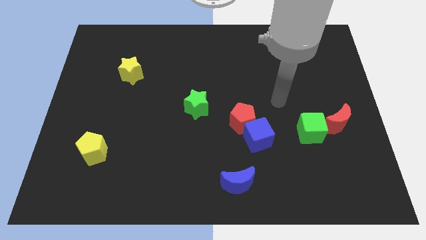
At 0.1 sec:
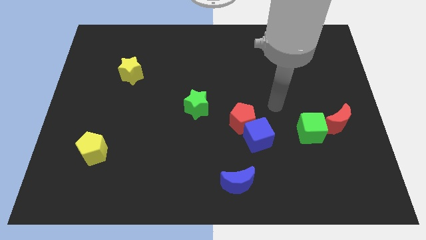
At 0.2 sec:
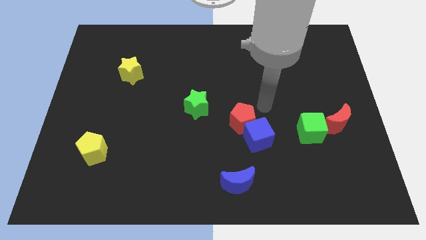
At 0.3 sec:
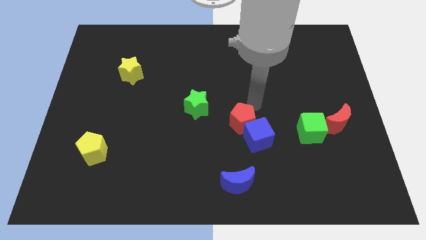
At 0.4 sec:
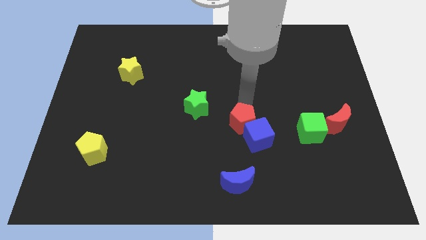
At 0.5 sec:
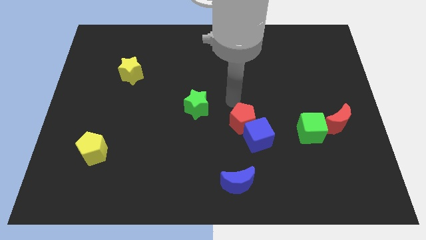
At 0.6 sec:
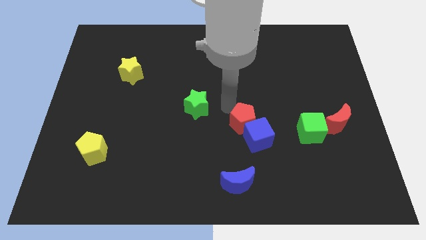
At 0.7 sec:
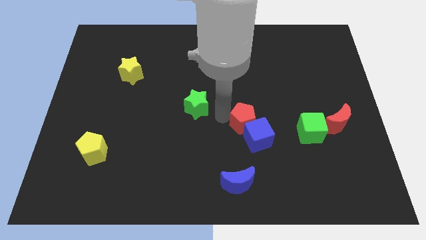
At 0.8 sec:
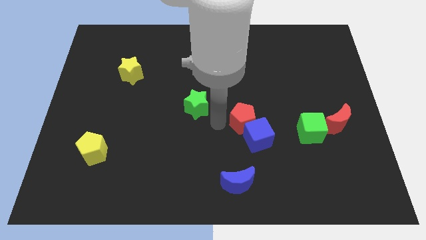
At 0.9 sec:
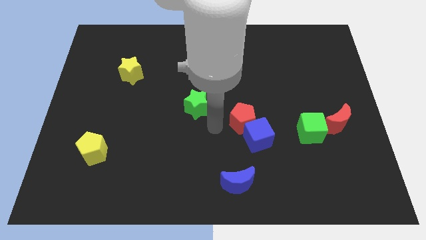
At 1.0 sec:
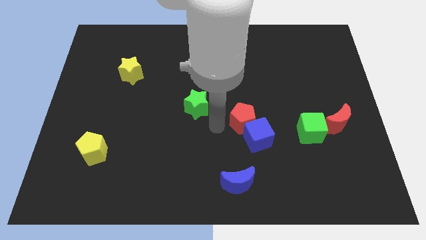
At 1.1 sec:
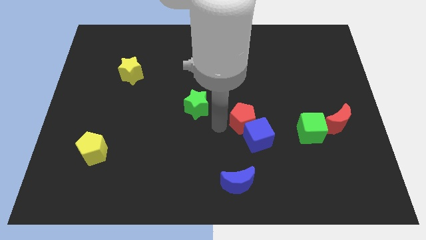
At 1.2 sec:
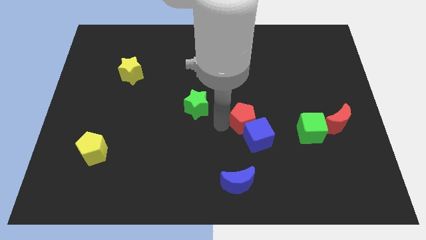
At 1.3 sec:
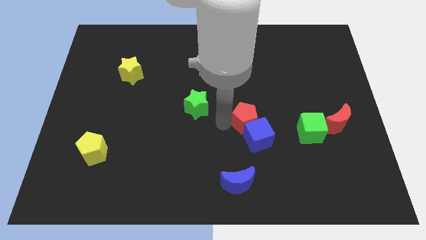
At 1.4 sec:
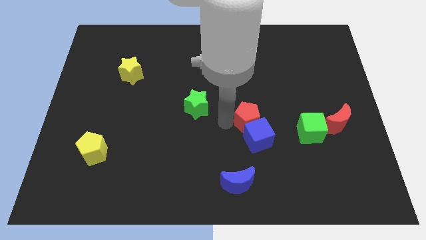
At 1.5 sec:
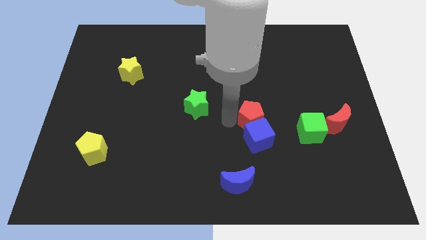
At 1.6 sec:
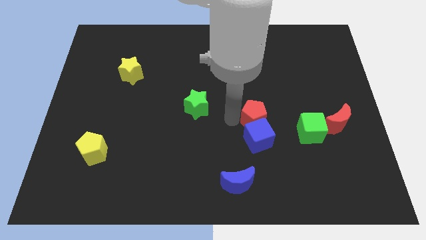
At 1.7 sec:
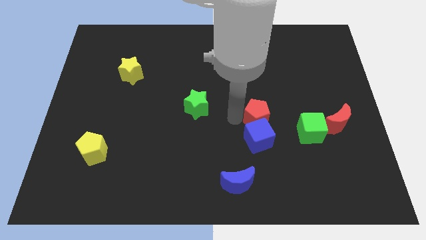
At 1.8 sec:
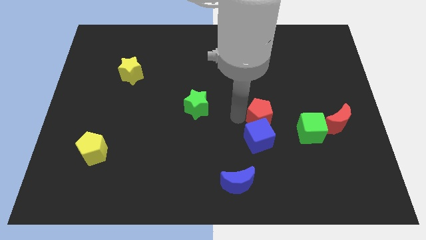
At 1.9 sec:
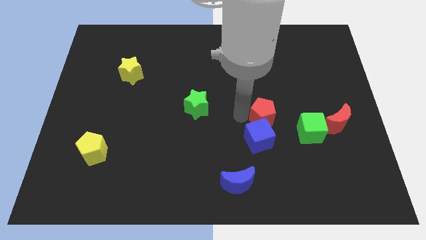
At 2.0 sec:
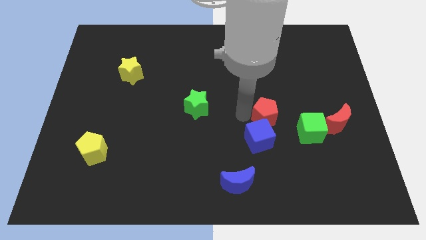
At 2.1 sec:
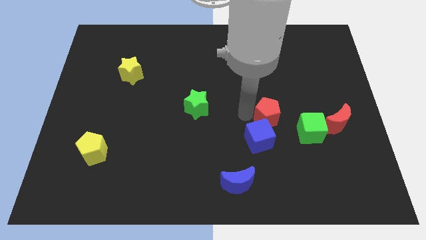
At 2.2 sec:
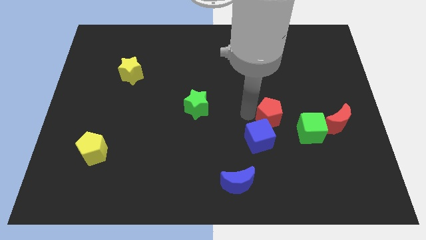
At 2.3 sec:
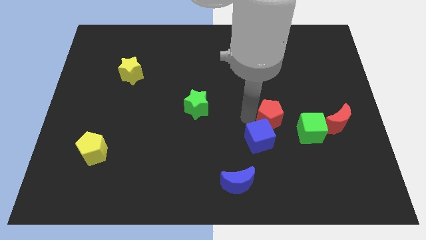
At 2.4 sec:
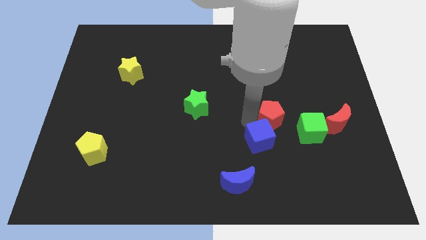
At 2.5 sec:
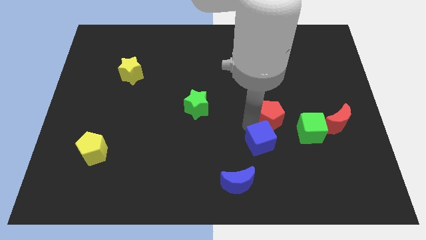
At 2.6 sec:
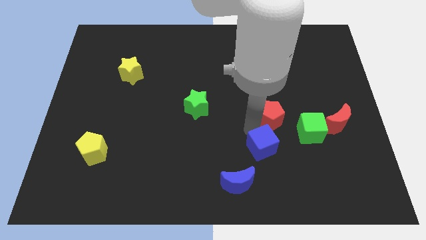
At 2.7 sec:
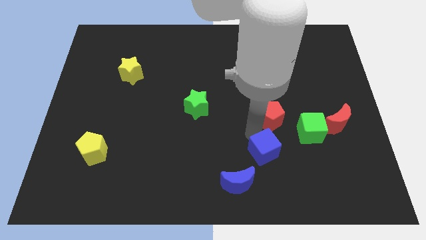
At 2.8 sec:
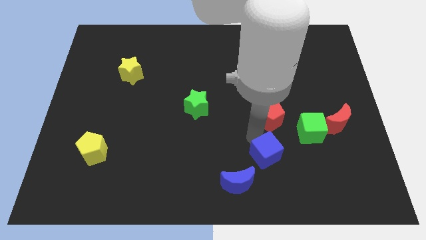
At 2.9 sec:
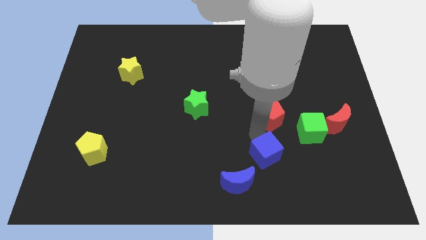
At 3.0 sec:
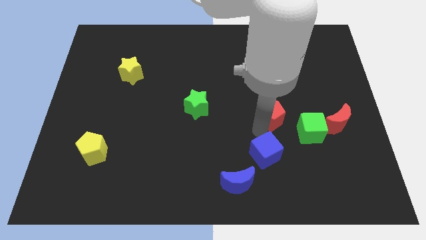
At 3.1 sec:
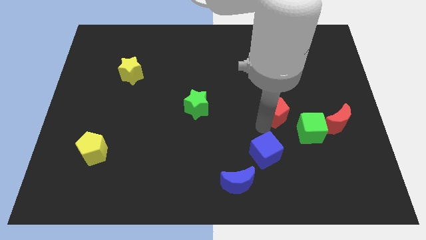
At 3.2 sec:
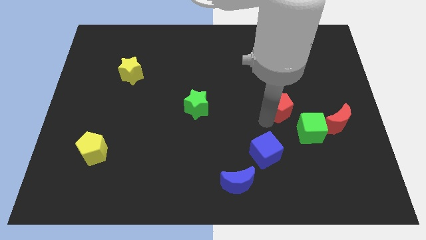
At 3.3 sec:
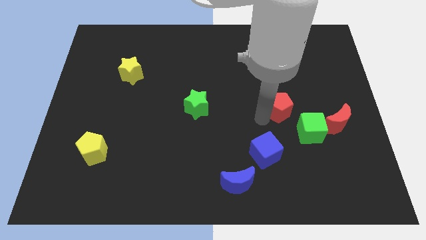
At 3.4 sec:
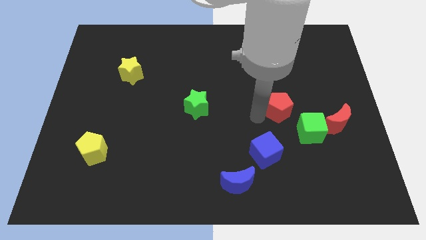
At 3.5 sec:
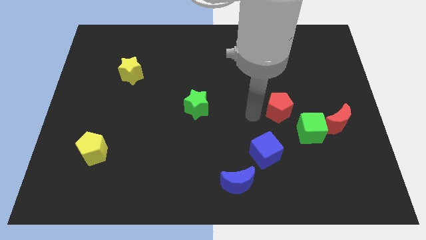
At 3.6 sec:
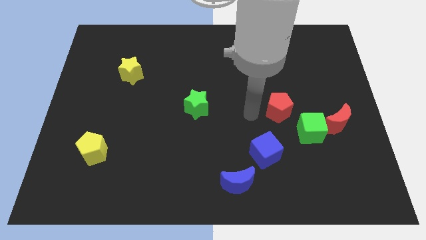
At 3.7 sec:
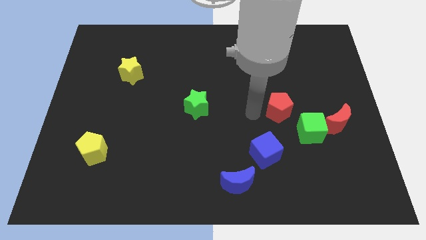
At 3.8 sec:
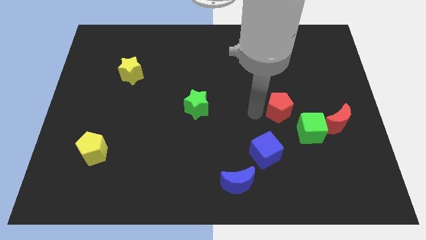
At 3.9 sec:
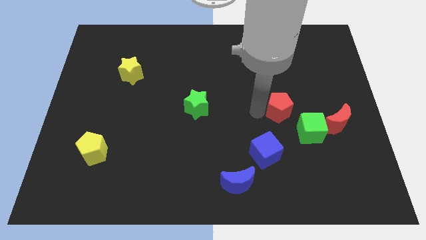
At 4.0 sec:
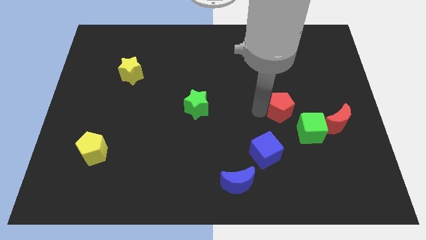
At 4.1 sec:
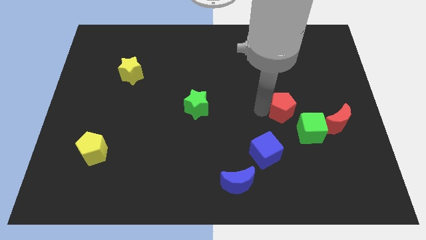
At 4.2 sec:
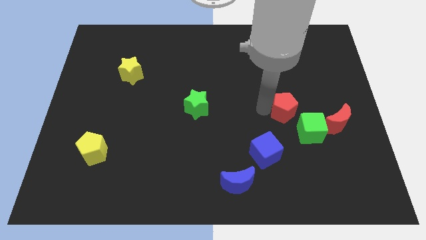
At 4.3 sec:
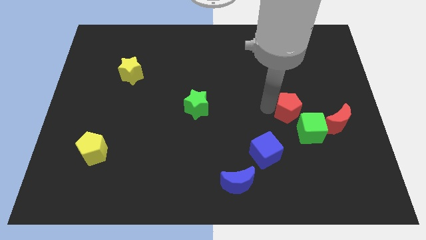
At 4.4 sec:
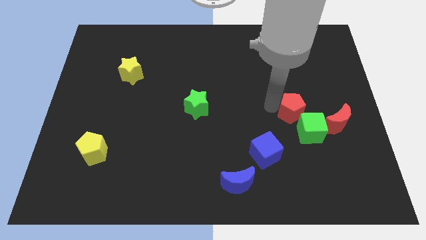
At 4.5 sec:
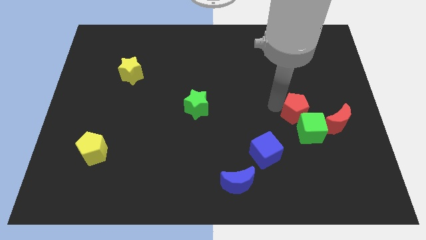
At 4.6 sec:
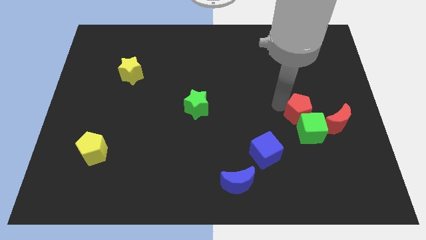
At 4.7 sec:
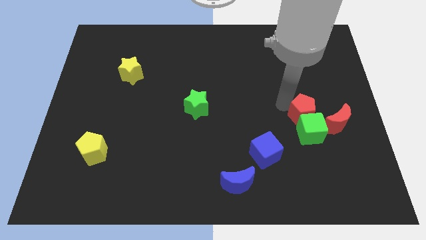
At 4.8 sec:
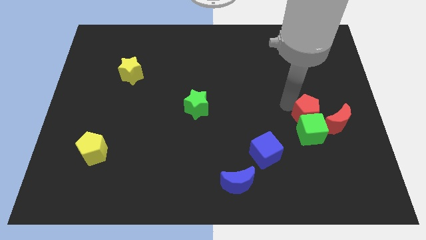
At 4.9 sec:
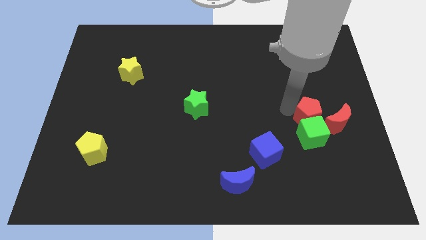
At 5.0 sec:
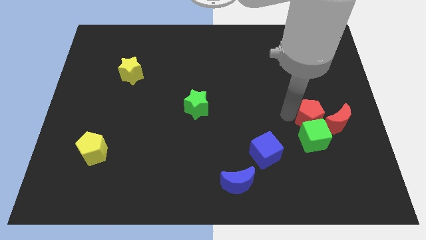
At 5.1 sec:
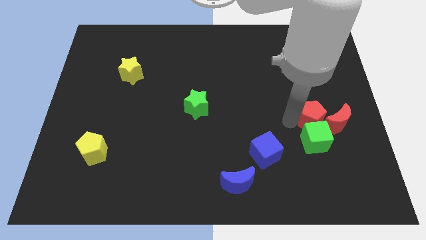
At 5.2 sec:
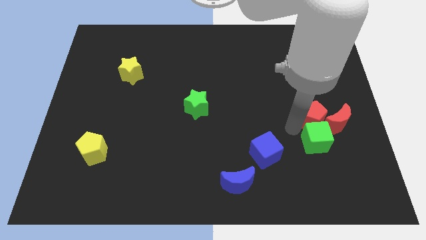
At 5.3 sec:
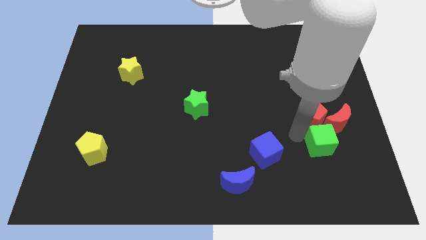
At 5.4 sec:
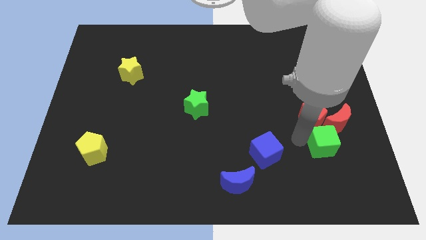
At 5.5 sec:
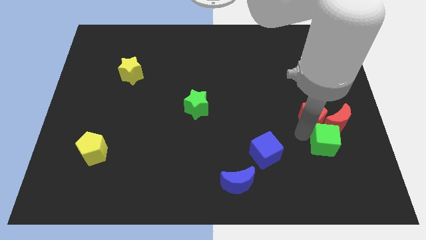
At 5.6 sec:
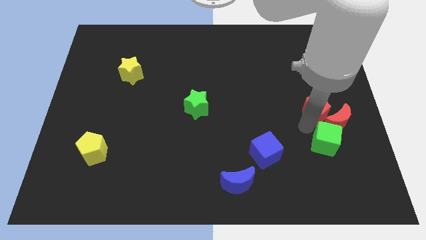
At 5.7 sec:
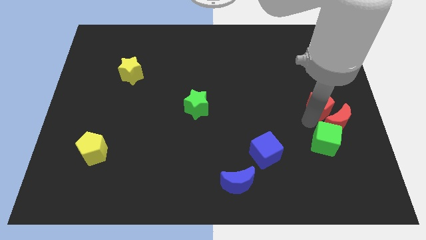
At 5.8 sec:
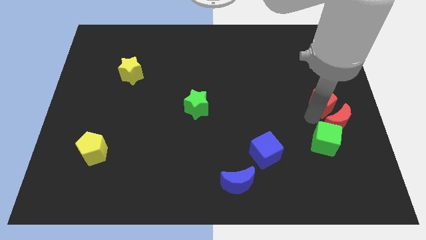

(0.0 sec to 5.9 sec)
move the red pentagon to the center right

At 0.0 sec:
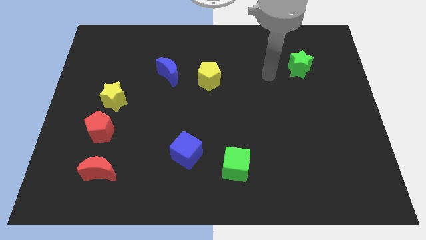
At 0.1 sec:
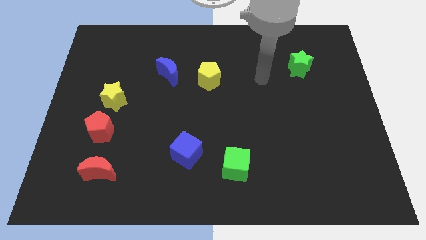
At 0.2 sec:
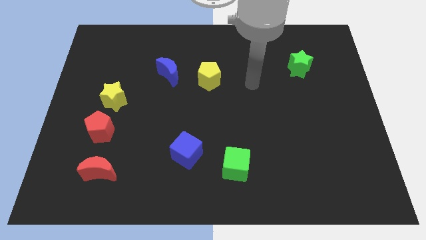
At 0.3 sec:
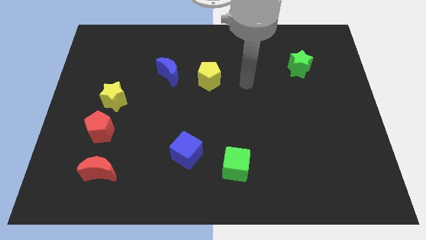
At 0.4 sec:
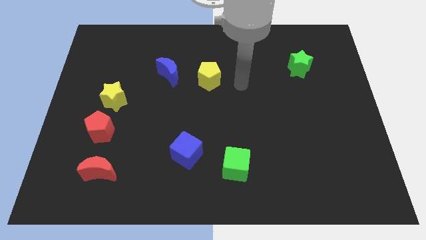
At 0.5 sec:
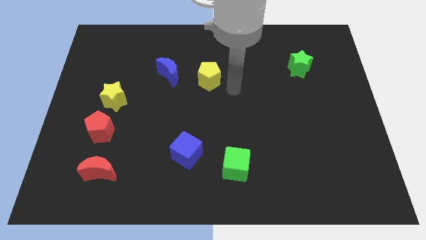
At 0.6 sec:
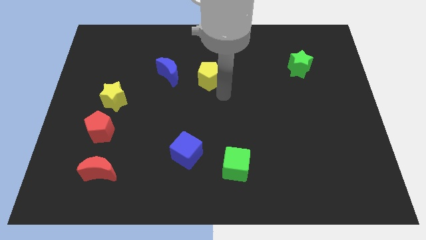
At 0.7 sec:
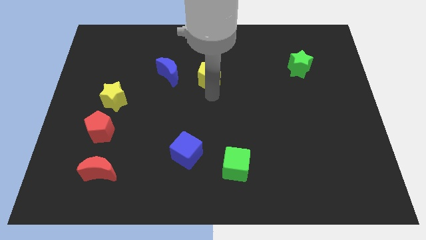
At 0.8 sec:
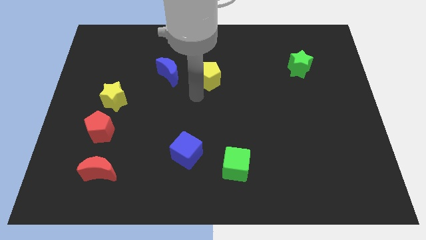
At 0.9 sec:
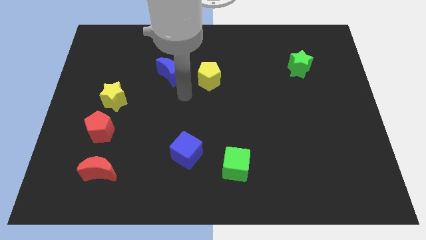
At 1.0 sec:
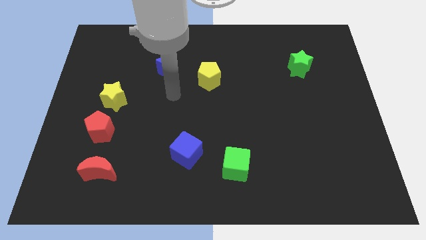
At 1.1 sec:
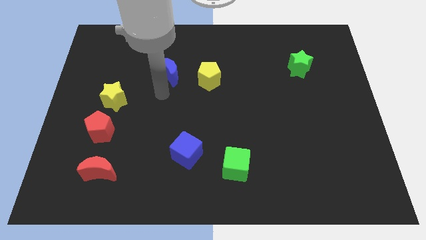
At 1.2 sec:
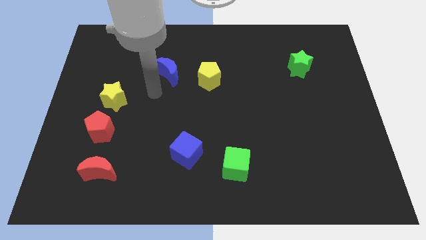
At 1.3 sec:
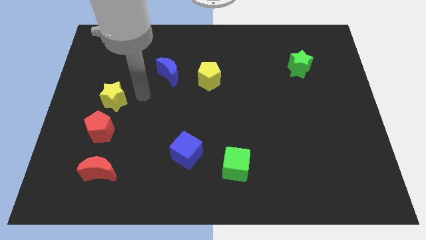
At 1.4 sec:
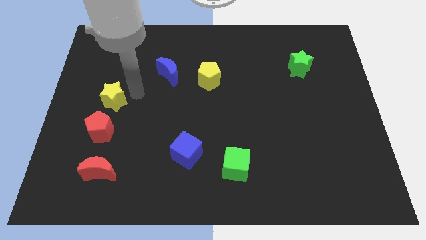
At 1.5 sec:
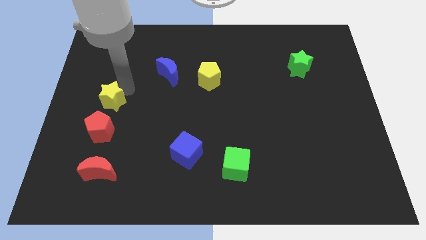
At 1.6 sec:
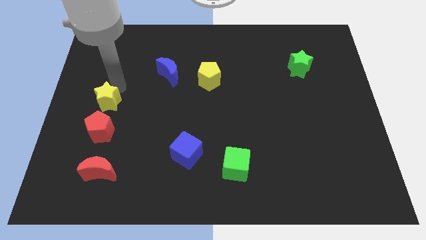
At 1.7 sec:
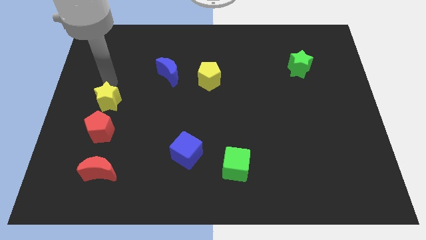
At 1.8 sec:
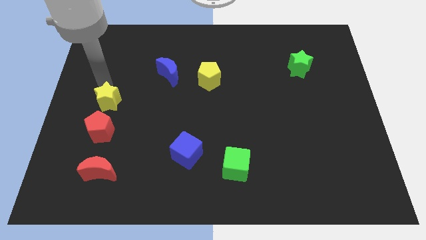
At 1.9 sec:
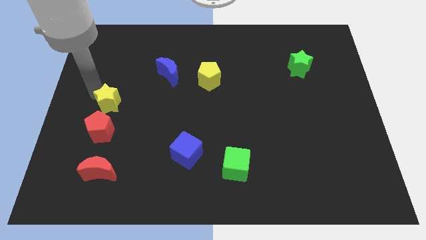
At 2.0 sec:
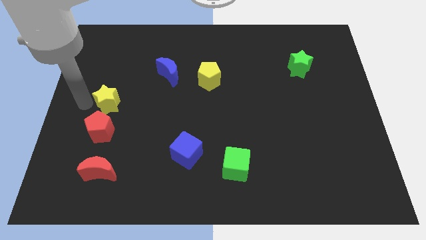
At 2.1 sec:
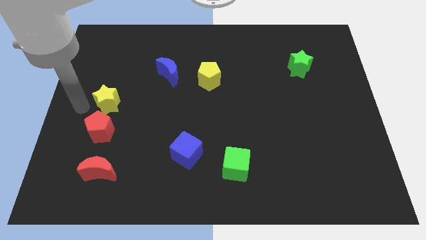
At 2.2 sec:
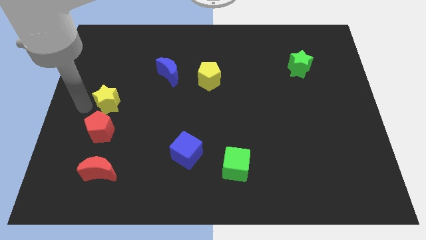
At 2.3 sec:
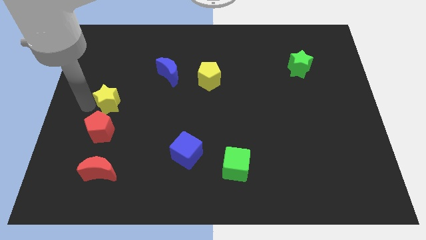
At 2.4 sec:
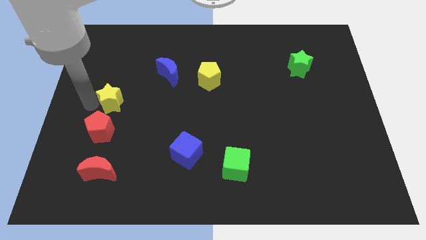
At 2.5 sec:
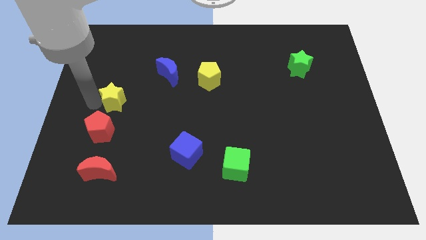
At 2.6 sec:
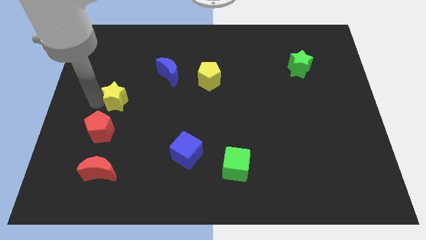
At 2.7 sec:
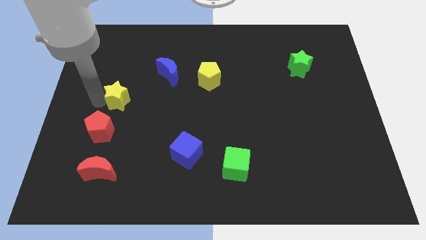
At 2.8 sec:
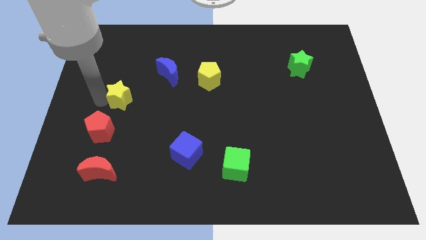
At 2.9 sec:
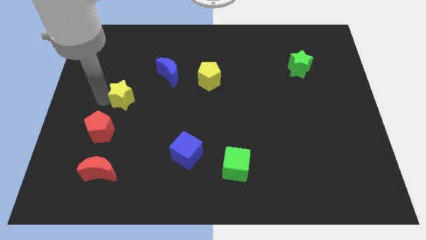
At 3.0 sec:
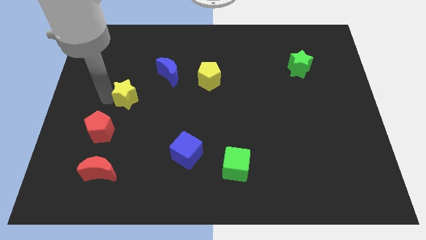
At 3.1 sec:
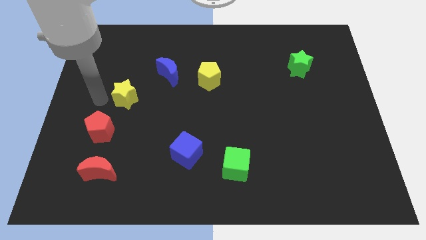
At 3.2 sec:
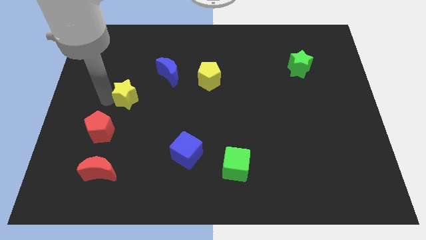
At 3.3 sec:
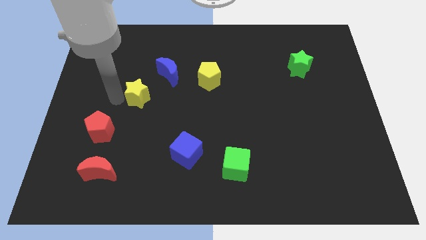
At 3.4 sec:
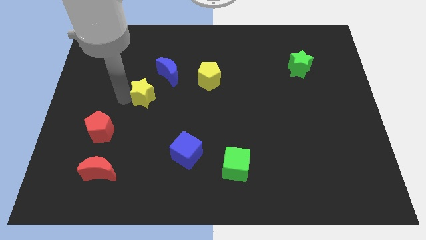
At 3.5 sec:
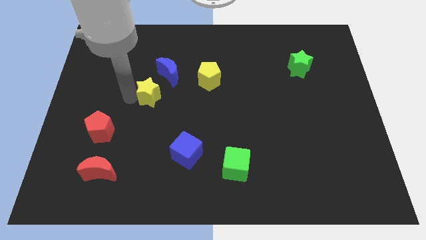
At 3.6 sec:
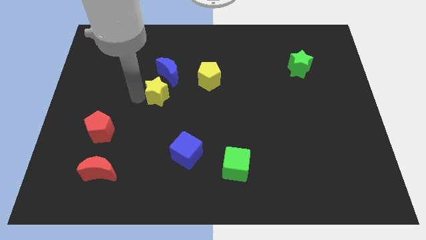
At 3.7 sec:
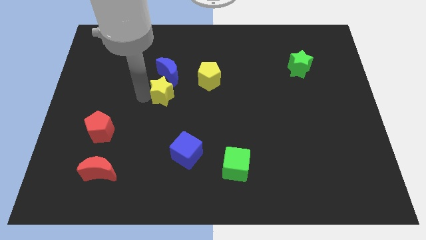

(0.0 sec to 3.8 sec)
push the yellow star to the middle of the board
